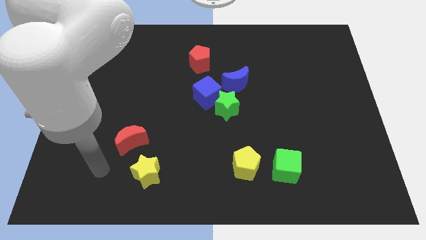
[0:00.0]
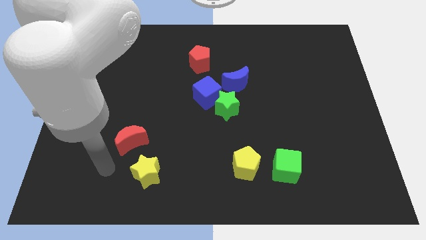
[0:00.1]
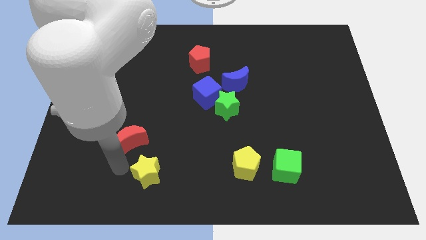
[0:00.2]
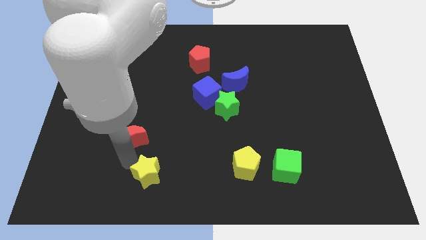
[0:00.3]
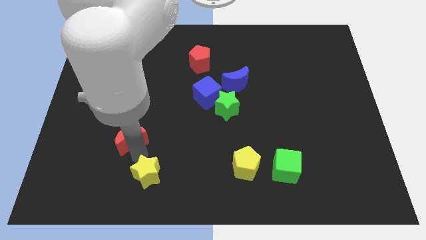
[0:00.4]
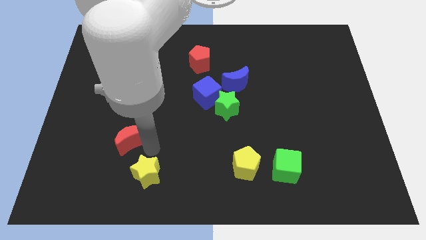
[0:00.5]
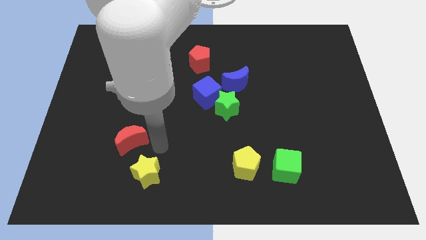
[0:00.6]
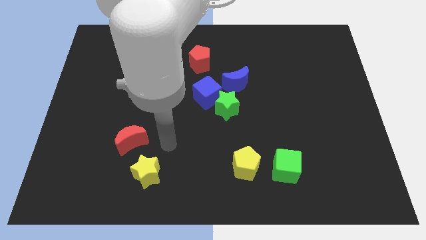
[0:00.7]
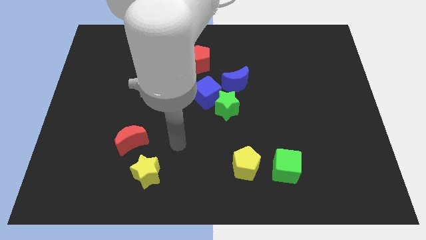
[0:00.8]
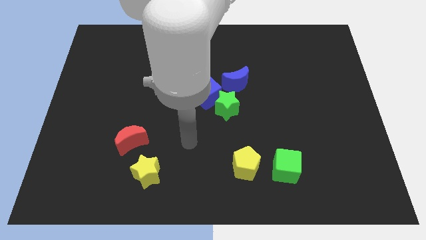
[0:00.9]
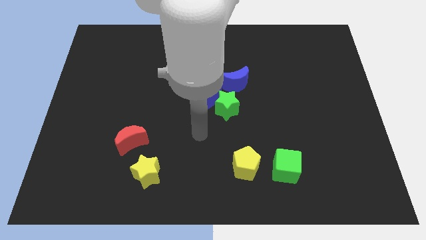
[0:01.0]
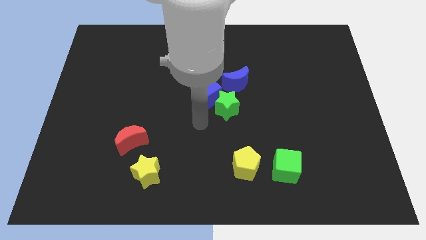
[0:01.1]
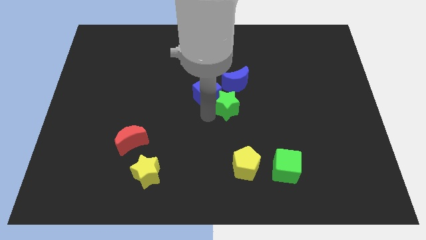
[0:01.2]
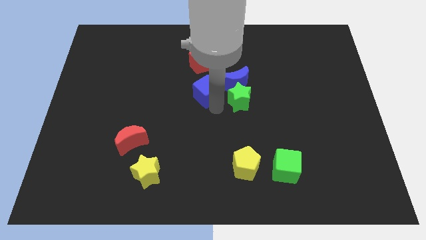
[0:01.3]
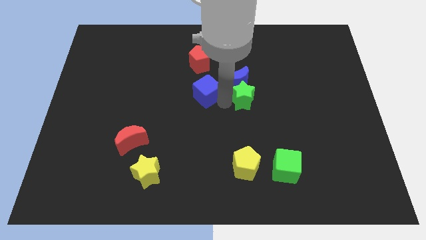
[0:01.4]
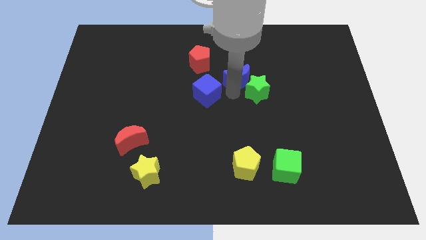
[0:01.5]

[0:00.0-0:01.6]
separate the blue cube from the green star and blue moon

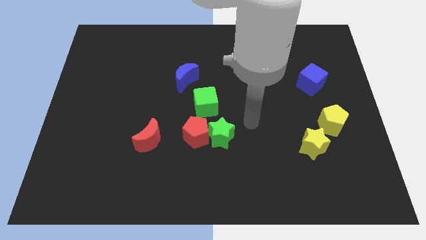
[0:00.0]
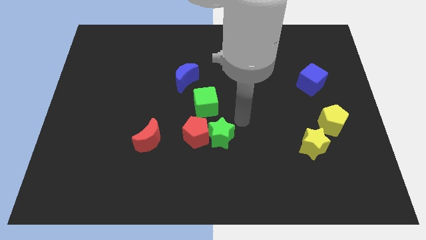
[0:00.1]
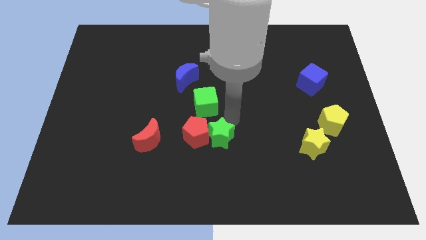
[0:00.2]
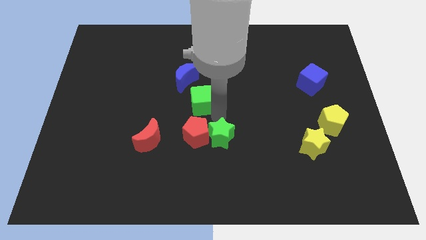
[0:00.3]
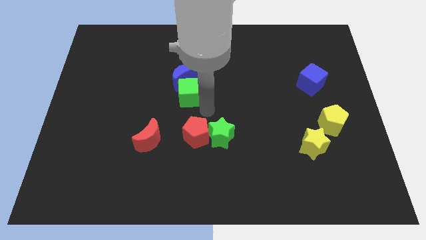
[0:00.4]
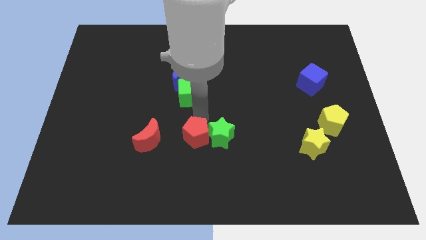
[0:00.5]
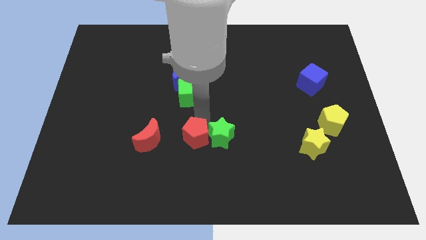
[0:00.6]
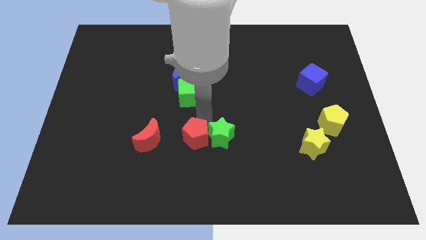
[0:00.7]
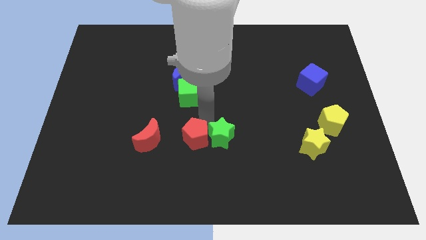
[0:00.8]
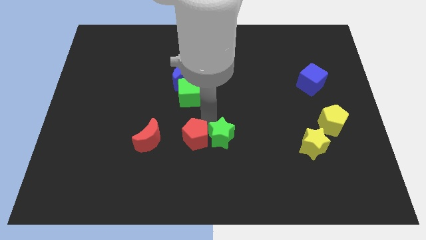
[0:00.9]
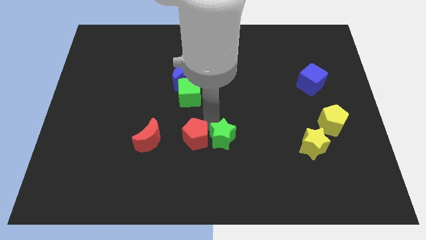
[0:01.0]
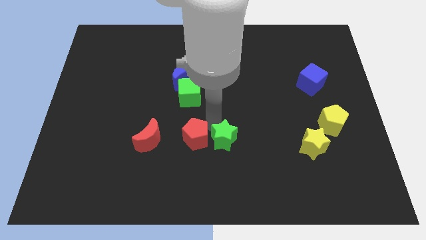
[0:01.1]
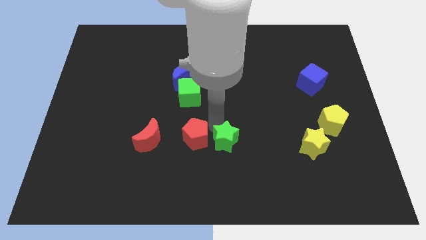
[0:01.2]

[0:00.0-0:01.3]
pull the green star apart from the red pentagon and green cube

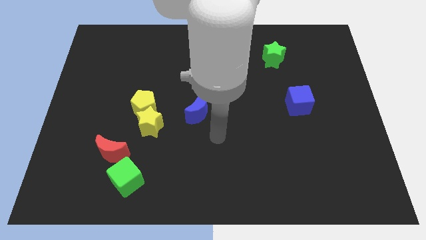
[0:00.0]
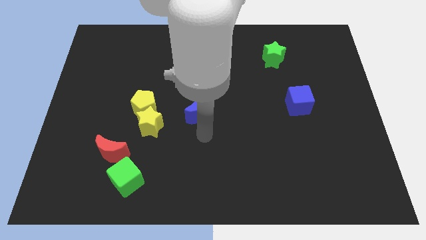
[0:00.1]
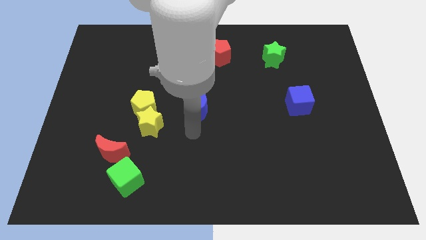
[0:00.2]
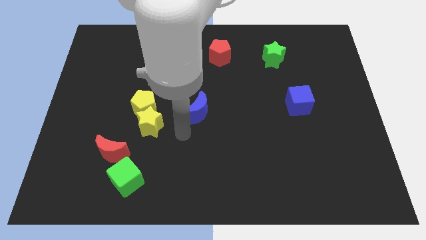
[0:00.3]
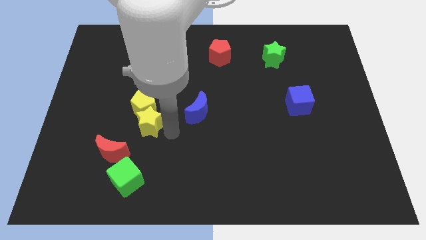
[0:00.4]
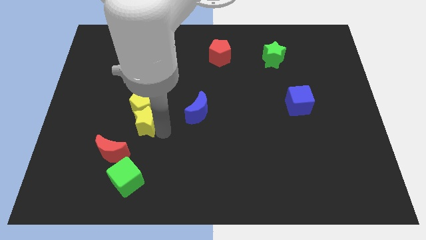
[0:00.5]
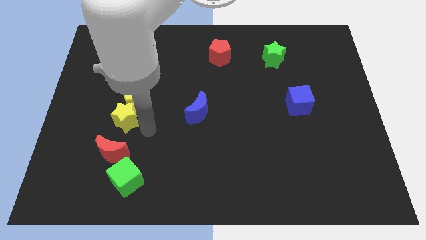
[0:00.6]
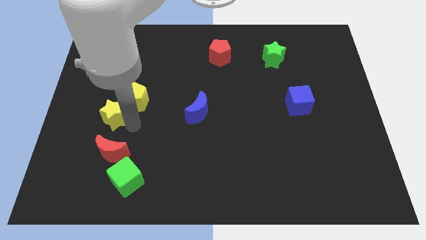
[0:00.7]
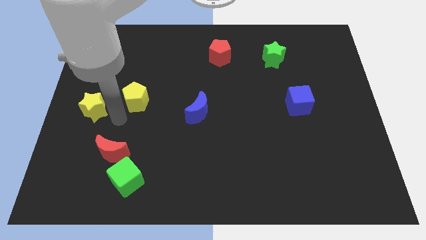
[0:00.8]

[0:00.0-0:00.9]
separate the yellow pentagon from the yellow star

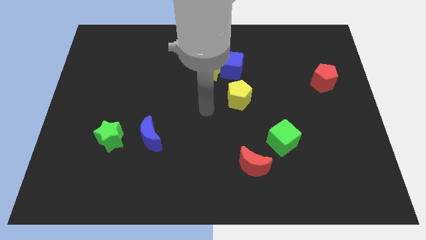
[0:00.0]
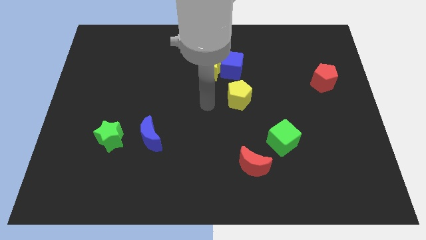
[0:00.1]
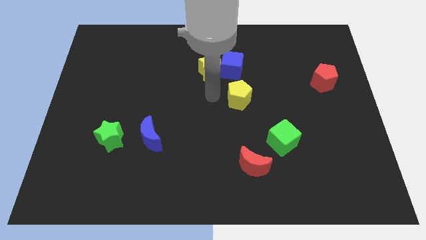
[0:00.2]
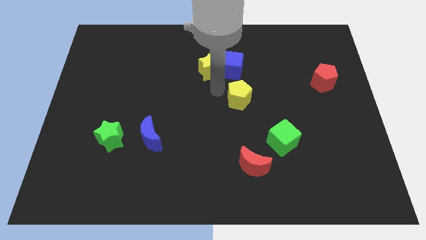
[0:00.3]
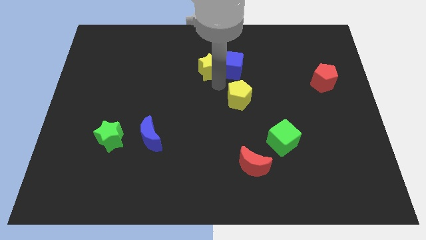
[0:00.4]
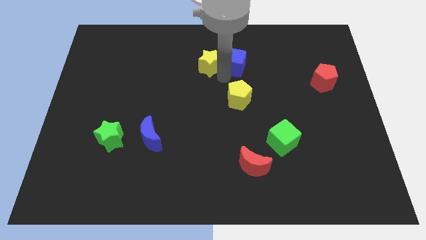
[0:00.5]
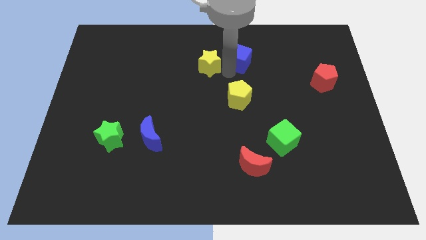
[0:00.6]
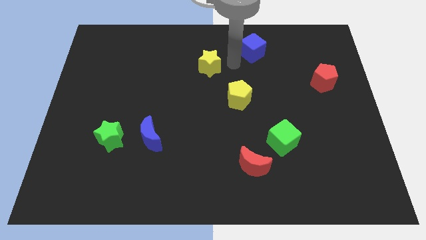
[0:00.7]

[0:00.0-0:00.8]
separate the yellow star from the blue cube

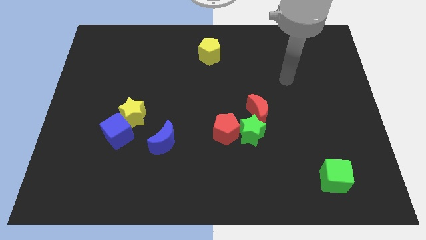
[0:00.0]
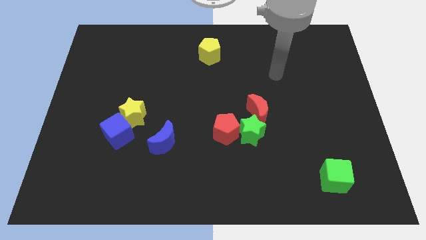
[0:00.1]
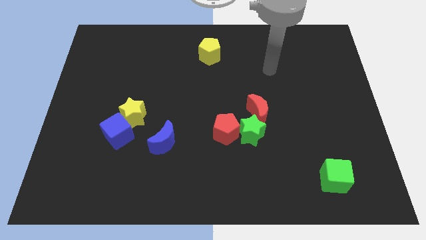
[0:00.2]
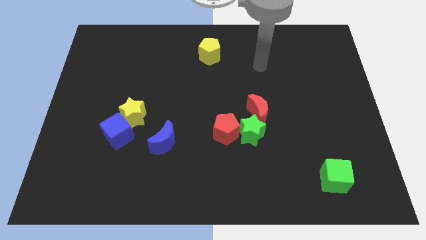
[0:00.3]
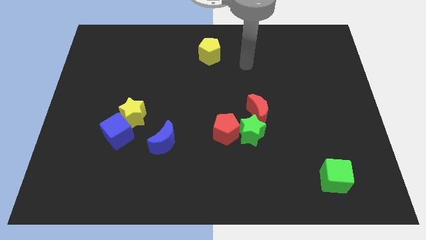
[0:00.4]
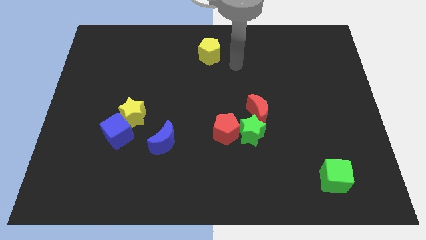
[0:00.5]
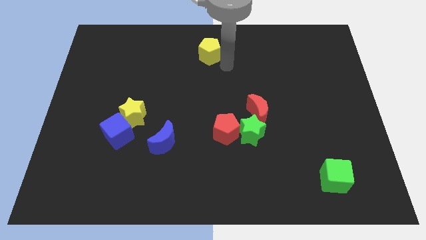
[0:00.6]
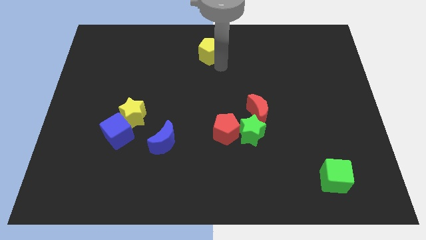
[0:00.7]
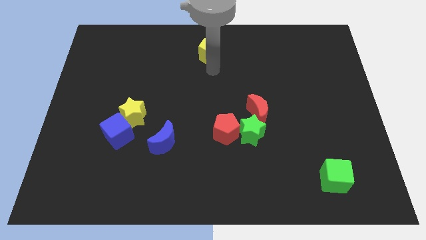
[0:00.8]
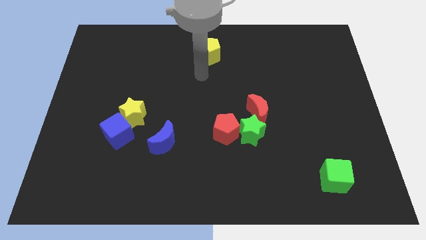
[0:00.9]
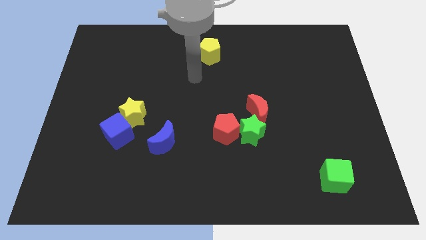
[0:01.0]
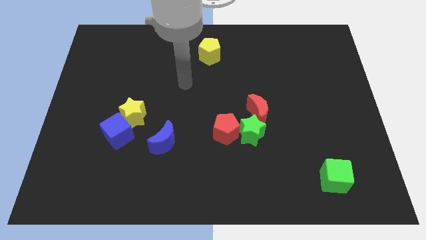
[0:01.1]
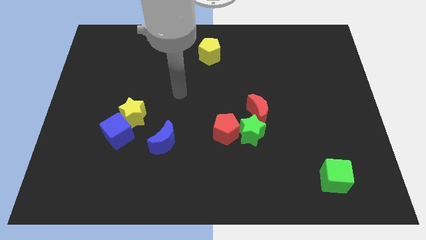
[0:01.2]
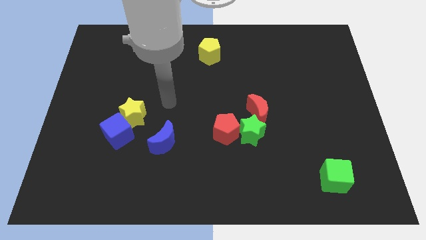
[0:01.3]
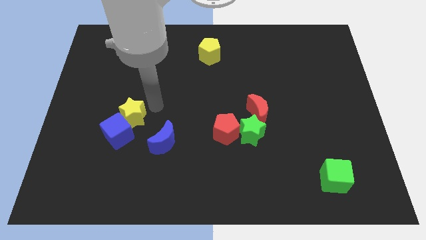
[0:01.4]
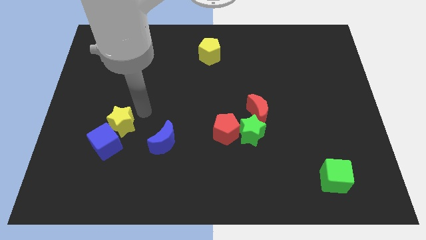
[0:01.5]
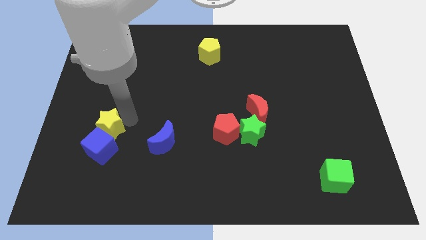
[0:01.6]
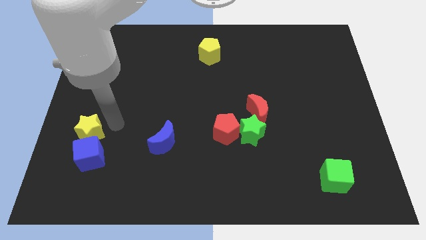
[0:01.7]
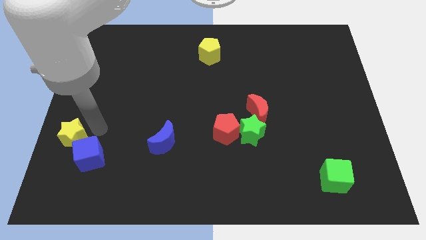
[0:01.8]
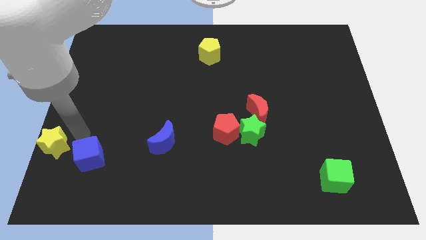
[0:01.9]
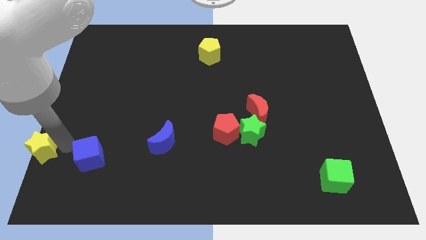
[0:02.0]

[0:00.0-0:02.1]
move the blue cube away from the yellow star

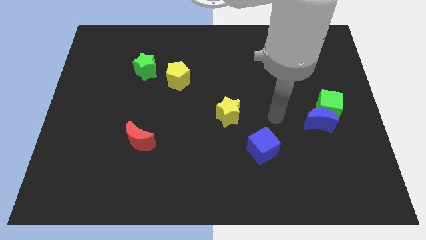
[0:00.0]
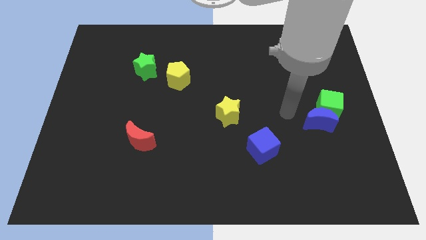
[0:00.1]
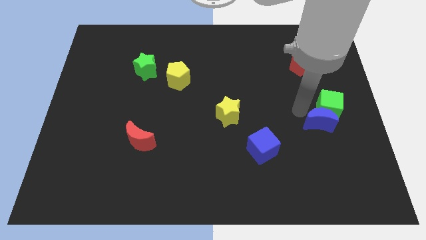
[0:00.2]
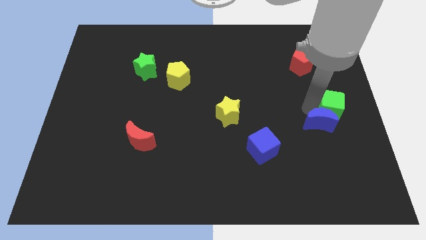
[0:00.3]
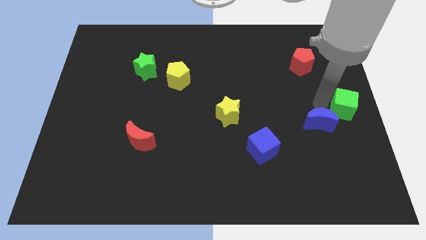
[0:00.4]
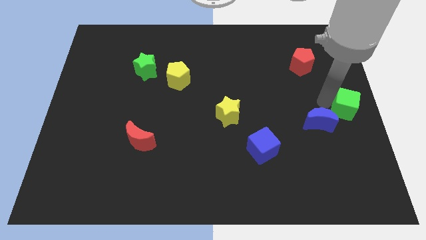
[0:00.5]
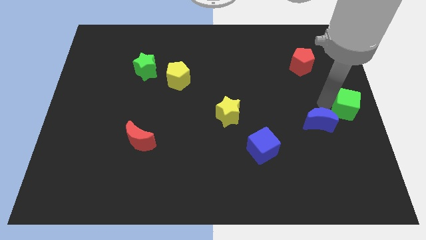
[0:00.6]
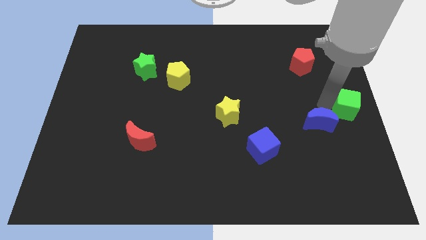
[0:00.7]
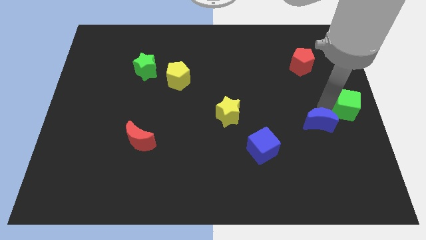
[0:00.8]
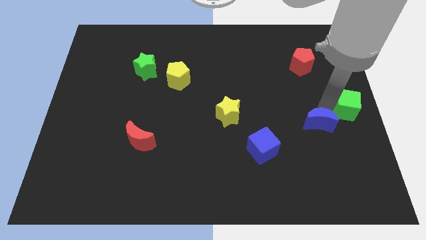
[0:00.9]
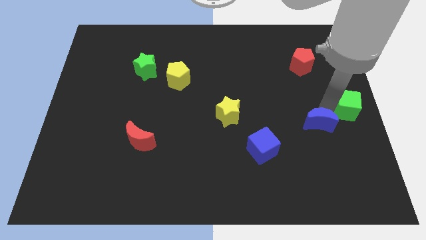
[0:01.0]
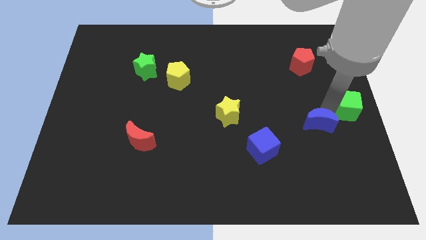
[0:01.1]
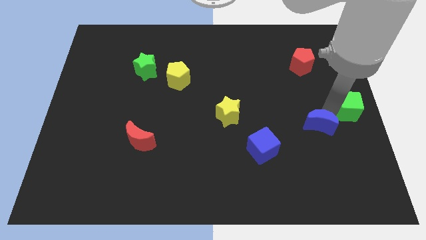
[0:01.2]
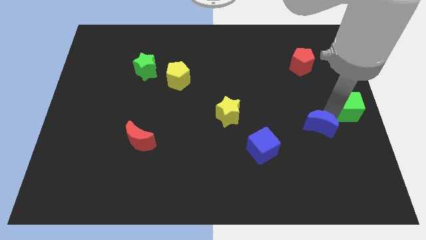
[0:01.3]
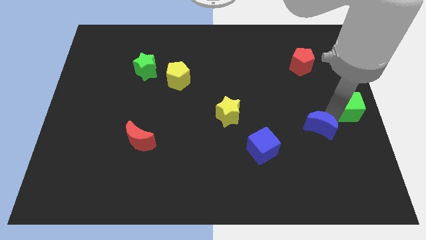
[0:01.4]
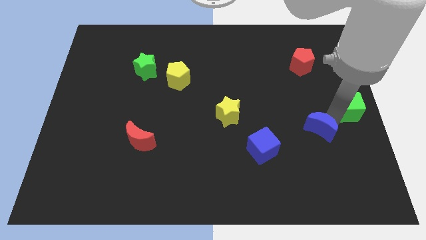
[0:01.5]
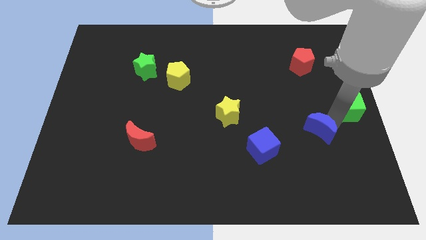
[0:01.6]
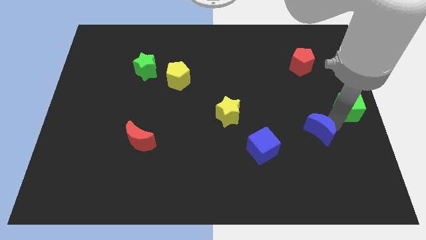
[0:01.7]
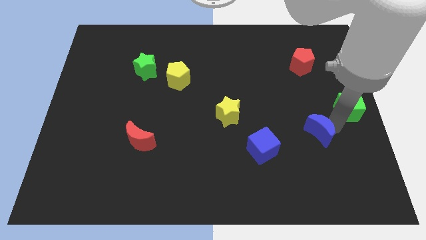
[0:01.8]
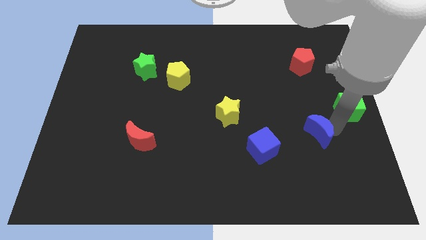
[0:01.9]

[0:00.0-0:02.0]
move the blue moon away from the green cube

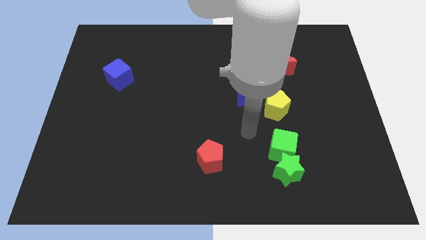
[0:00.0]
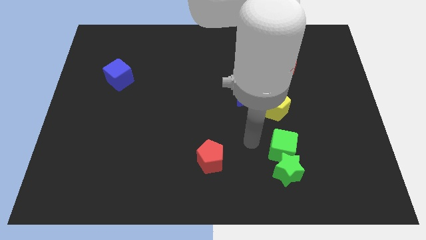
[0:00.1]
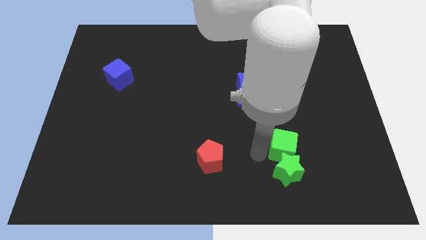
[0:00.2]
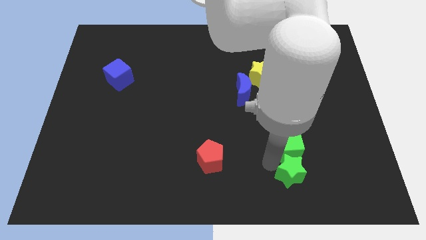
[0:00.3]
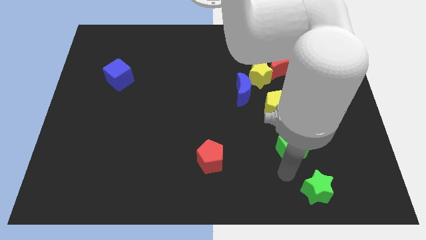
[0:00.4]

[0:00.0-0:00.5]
separate the green cube from the green star

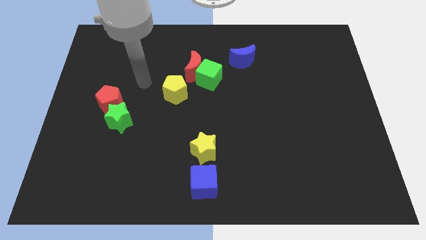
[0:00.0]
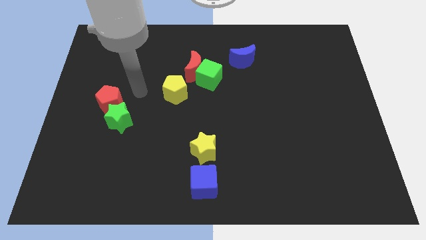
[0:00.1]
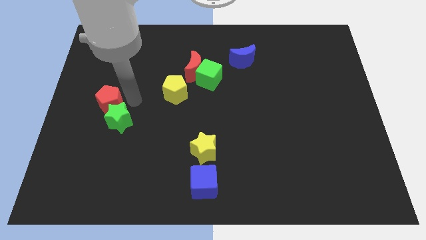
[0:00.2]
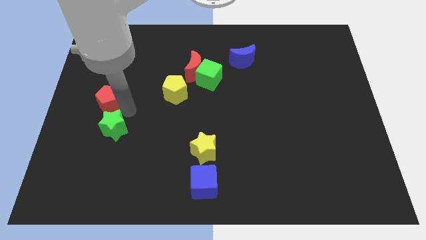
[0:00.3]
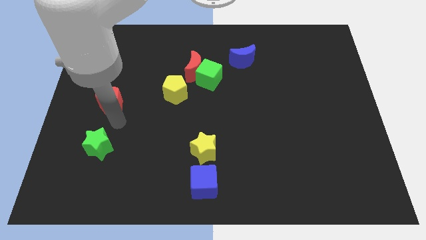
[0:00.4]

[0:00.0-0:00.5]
pull the red pentagon apart from the green star
